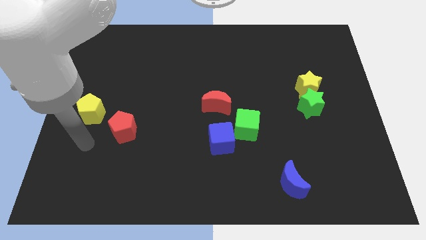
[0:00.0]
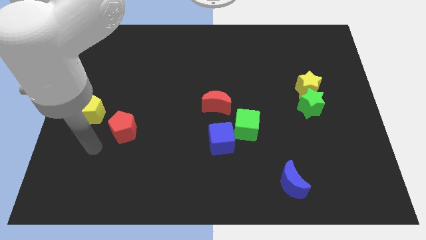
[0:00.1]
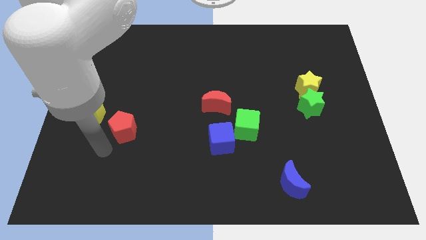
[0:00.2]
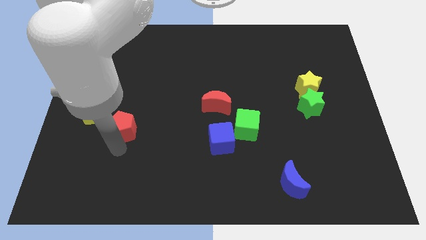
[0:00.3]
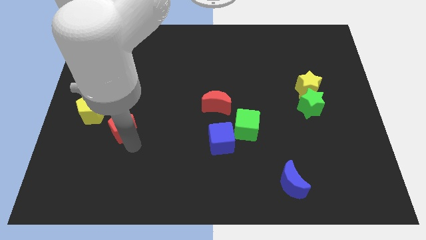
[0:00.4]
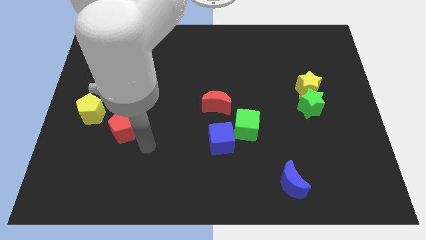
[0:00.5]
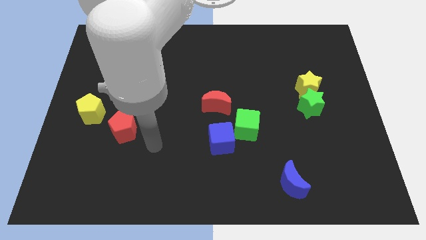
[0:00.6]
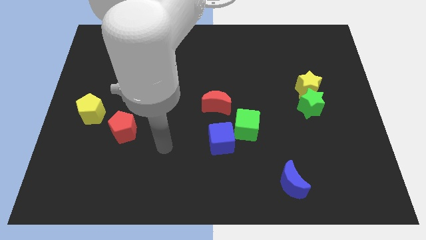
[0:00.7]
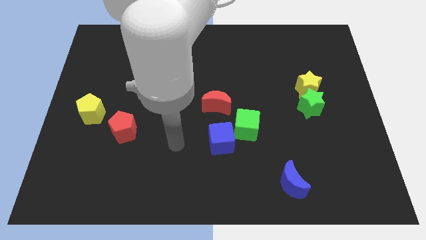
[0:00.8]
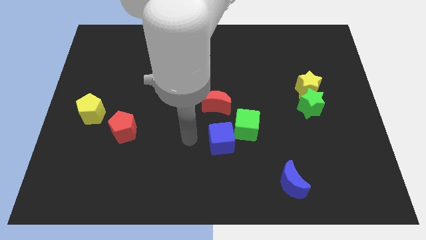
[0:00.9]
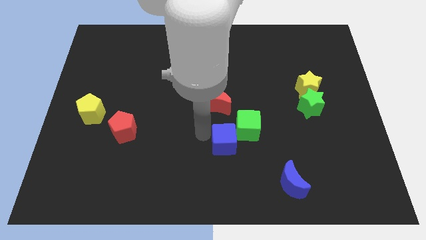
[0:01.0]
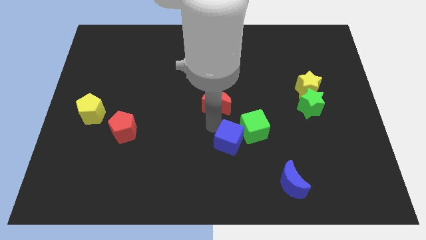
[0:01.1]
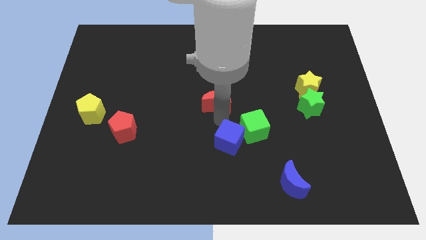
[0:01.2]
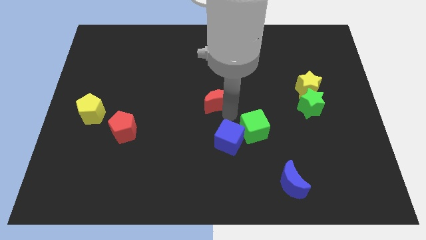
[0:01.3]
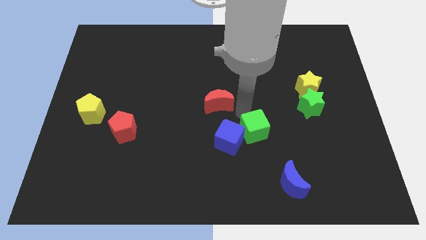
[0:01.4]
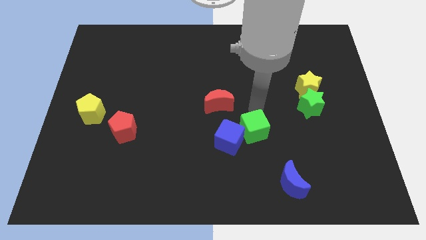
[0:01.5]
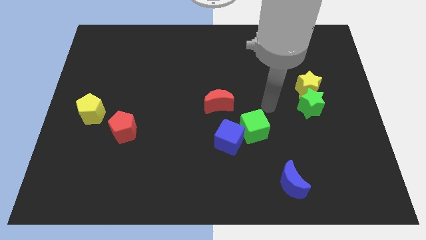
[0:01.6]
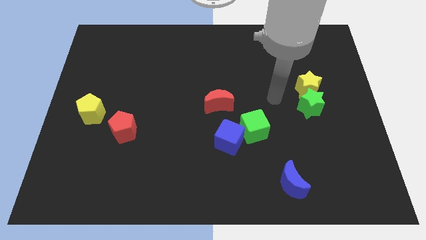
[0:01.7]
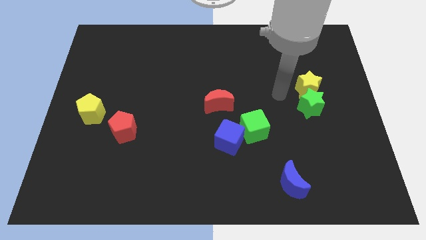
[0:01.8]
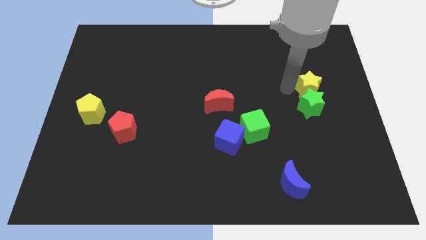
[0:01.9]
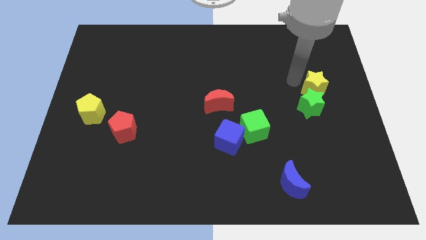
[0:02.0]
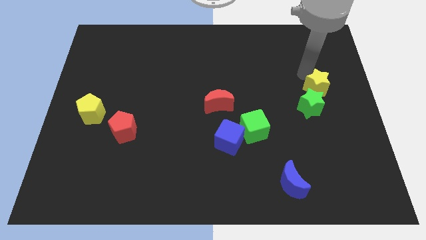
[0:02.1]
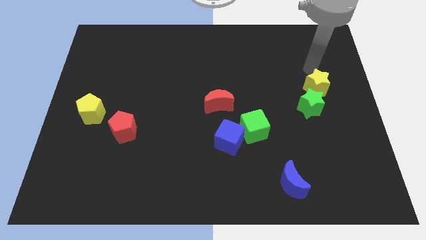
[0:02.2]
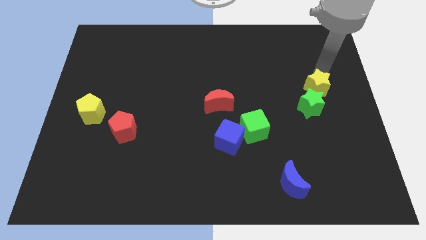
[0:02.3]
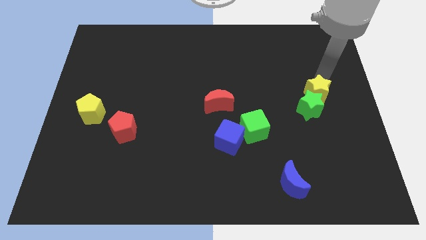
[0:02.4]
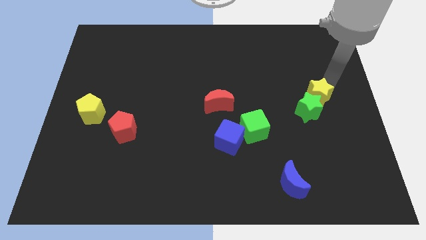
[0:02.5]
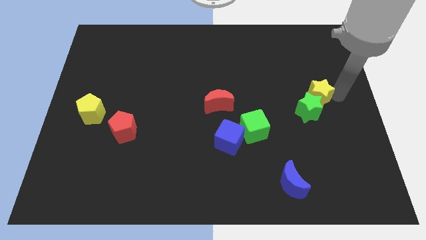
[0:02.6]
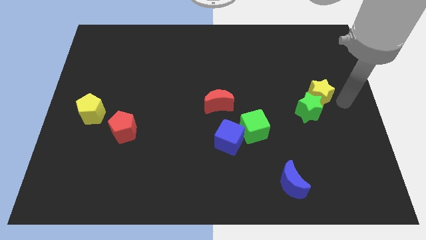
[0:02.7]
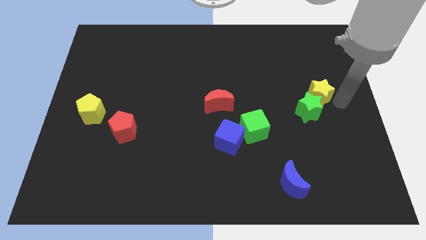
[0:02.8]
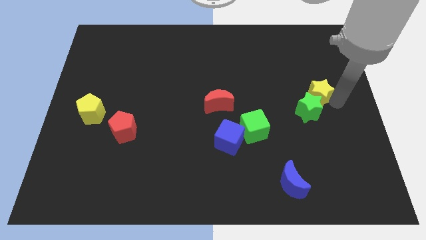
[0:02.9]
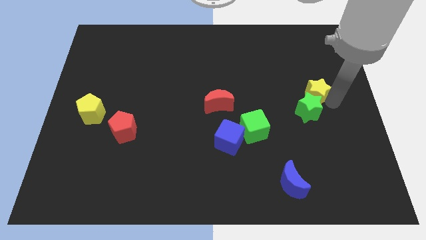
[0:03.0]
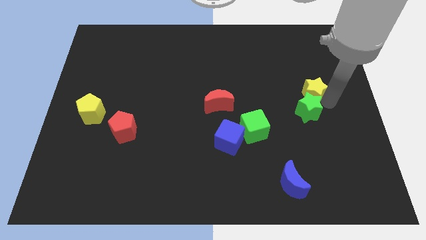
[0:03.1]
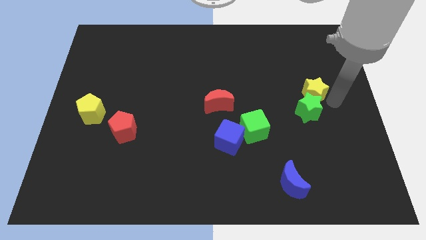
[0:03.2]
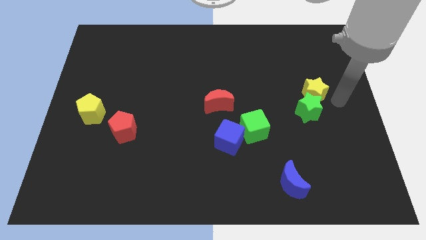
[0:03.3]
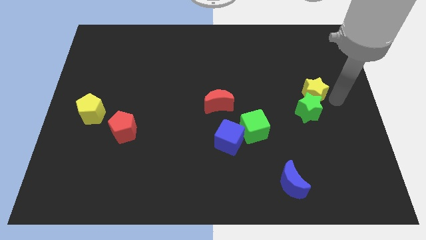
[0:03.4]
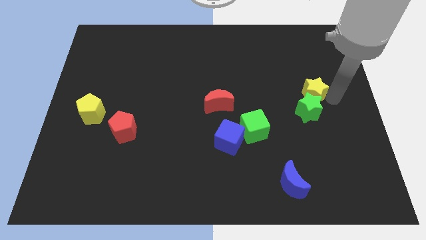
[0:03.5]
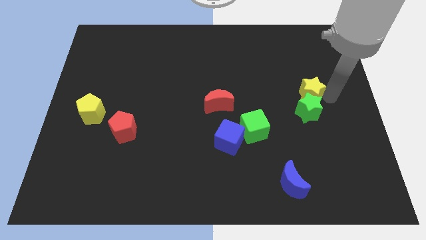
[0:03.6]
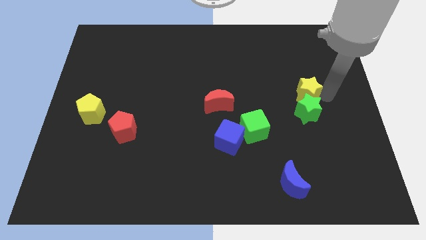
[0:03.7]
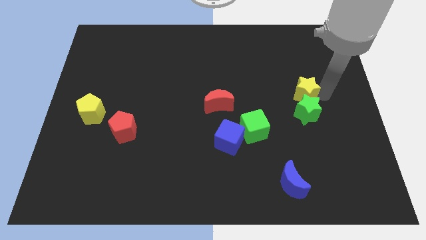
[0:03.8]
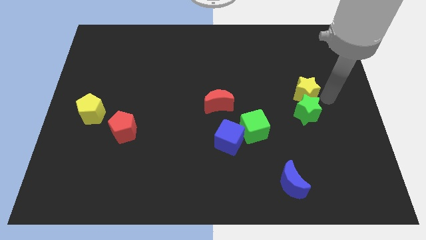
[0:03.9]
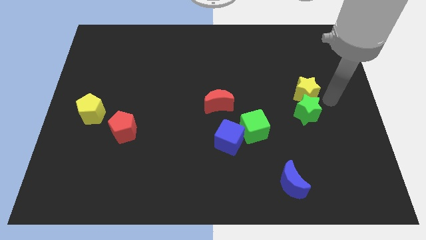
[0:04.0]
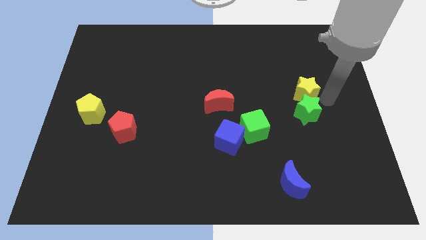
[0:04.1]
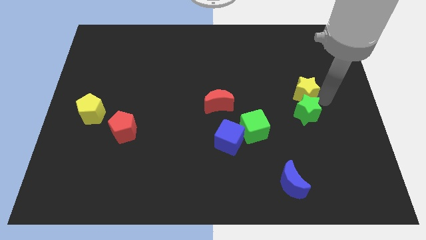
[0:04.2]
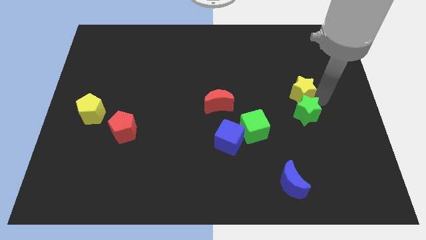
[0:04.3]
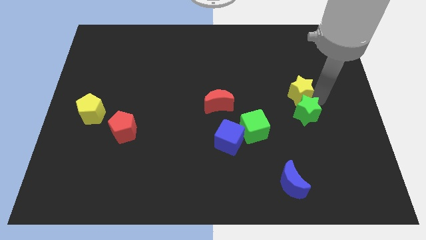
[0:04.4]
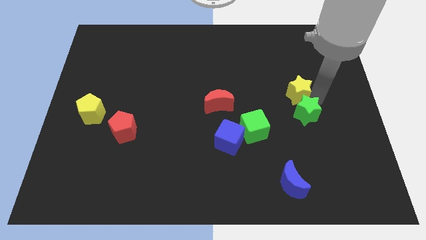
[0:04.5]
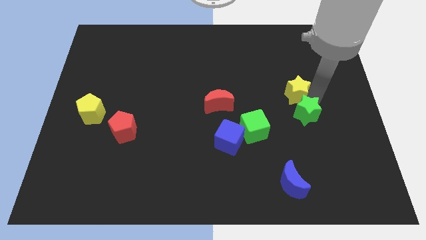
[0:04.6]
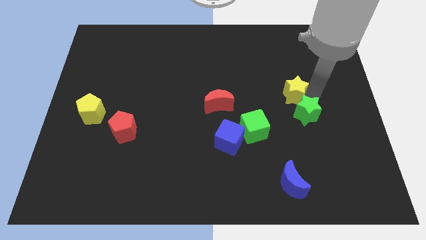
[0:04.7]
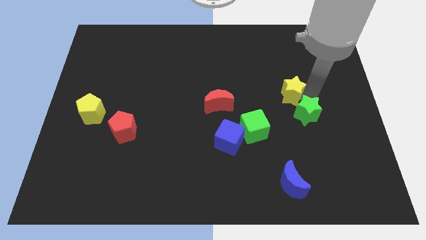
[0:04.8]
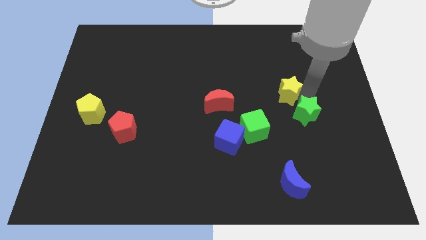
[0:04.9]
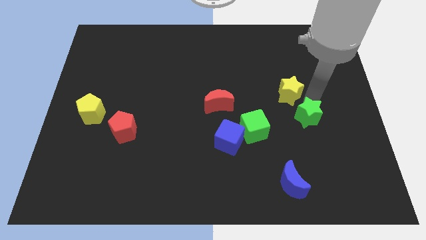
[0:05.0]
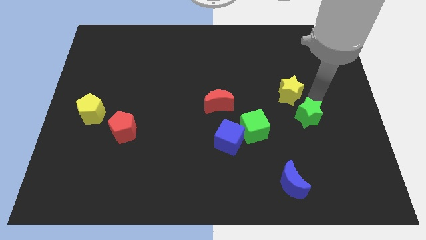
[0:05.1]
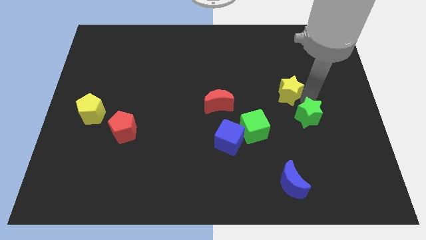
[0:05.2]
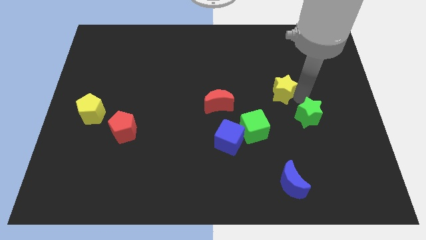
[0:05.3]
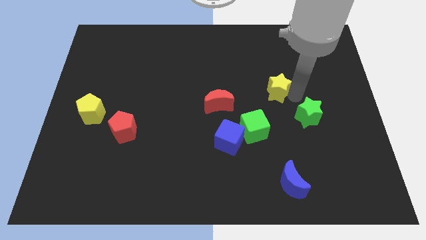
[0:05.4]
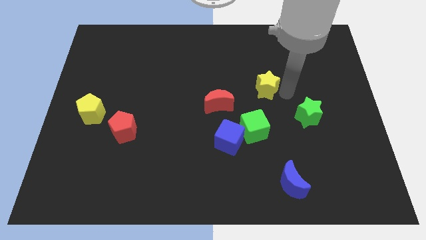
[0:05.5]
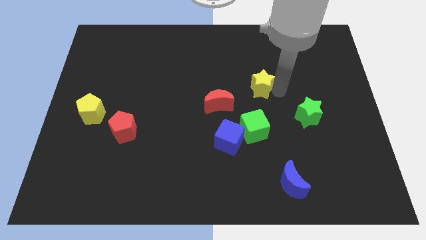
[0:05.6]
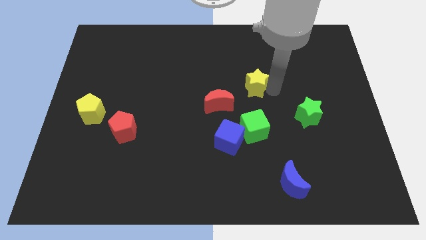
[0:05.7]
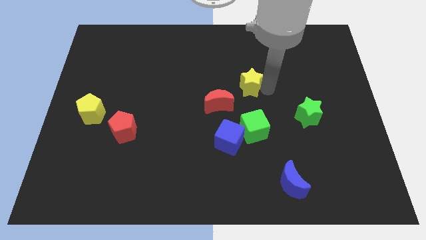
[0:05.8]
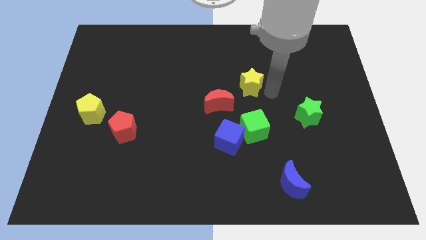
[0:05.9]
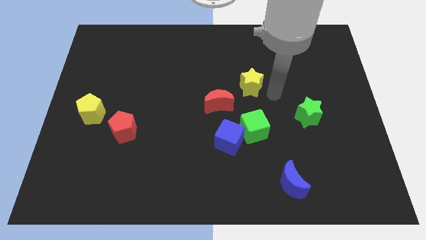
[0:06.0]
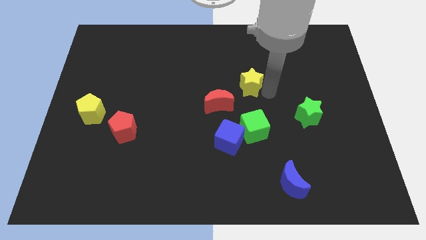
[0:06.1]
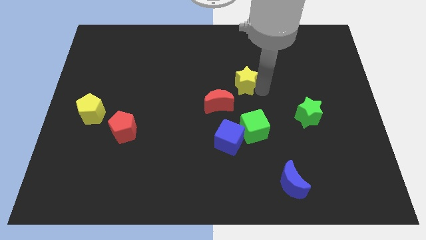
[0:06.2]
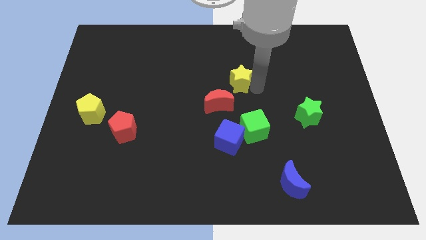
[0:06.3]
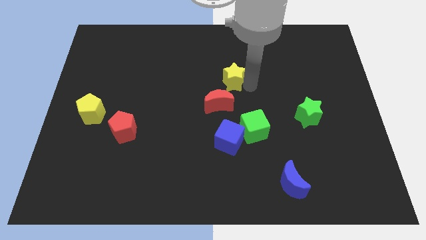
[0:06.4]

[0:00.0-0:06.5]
push the yellow star to the top of the red moon

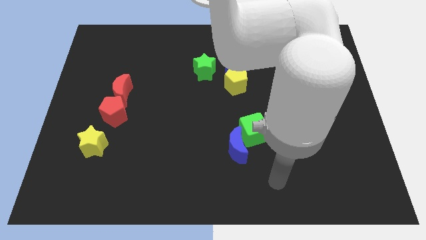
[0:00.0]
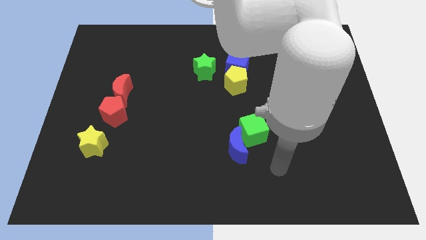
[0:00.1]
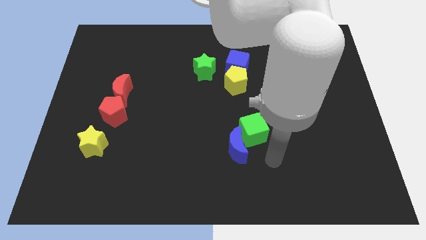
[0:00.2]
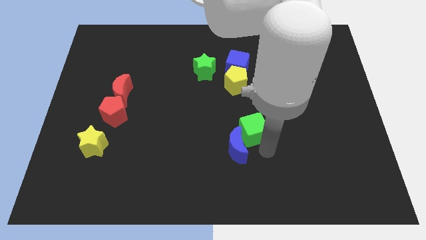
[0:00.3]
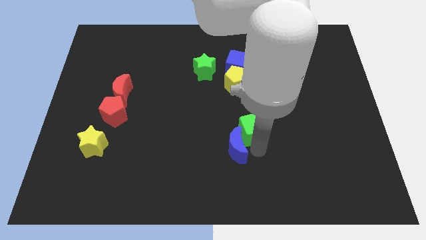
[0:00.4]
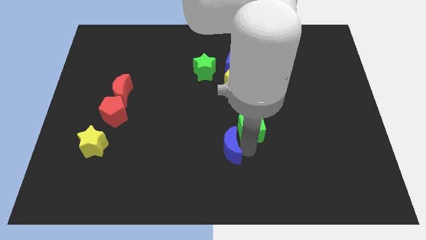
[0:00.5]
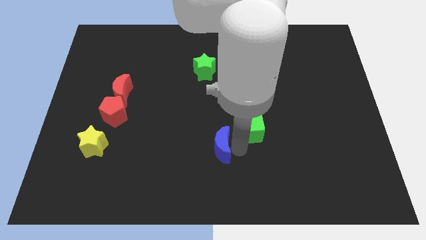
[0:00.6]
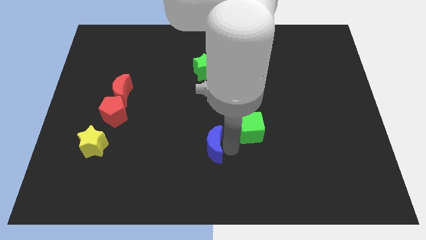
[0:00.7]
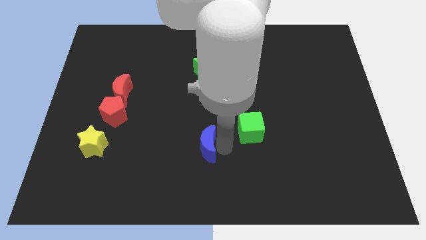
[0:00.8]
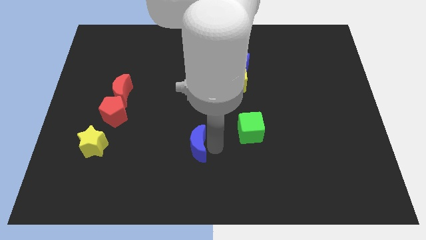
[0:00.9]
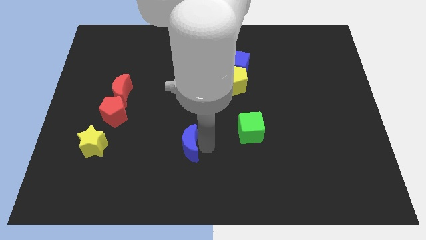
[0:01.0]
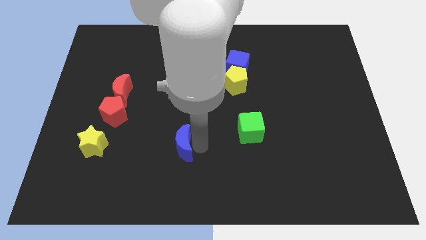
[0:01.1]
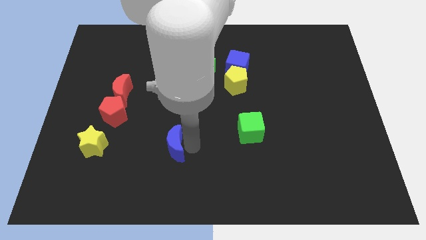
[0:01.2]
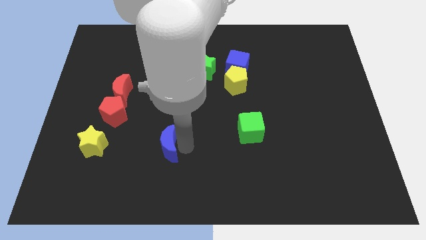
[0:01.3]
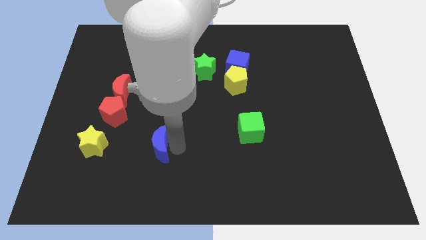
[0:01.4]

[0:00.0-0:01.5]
push the blue moon right of the yellow star
